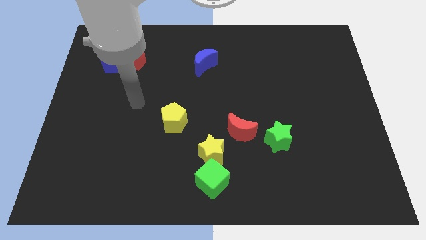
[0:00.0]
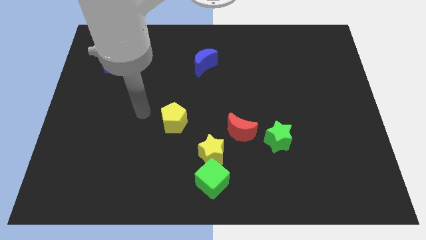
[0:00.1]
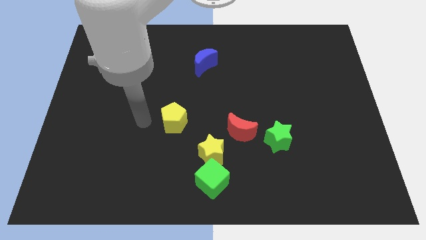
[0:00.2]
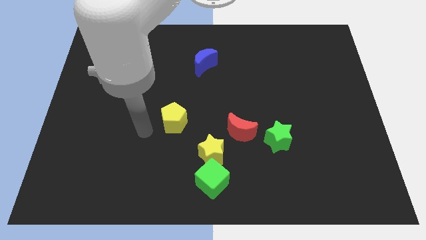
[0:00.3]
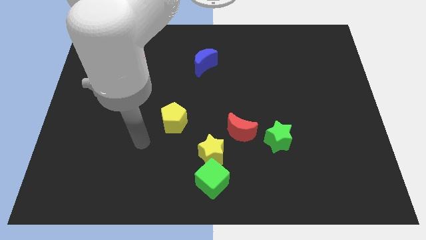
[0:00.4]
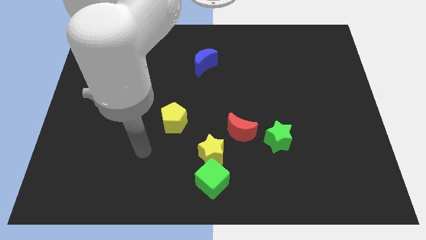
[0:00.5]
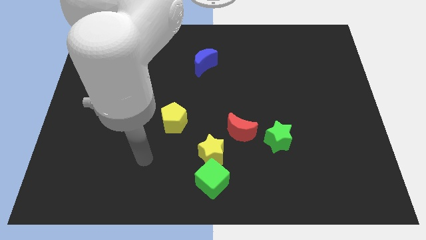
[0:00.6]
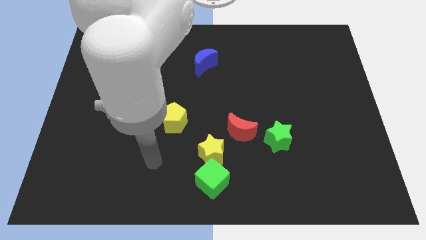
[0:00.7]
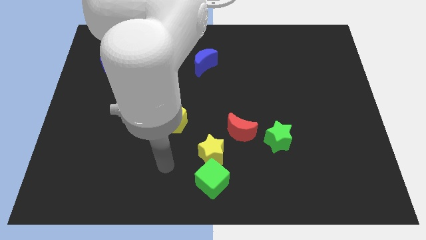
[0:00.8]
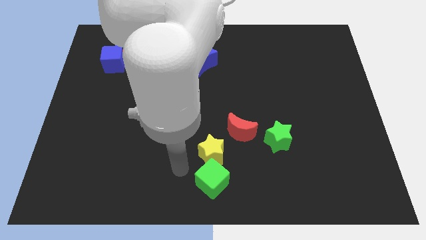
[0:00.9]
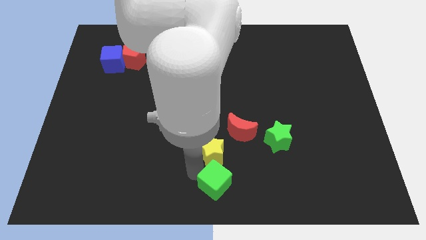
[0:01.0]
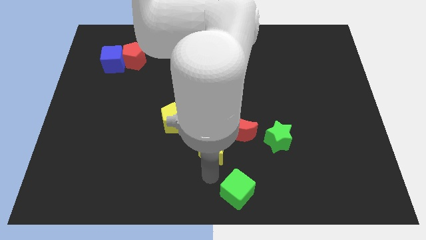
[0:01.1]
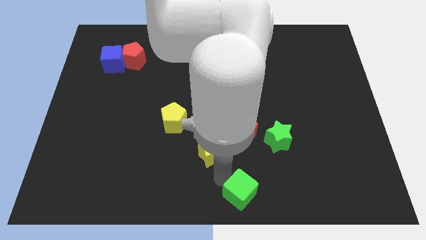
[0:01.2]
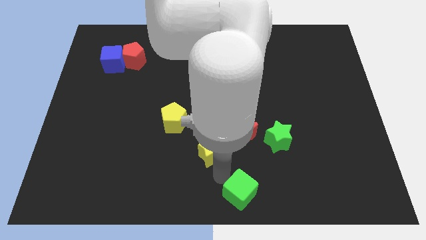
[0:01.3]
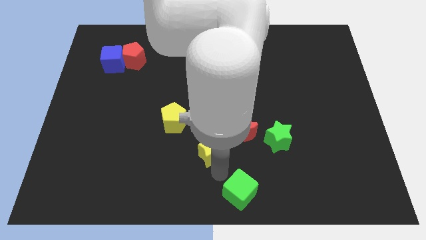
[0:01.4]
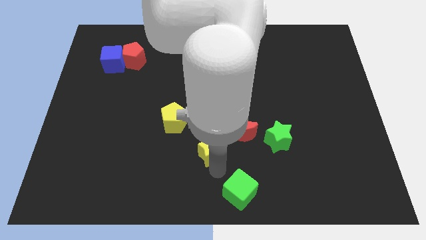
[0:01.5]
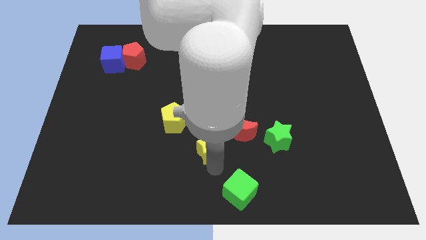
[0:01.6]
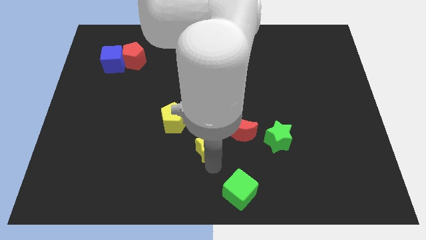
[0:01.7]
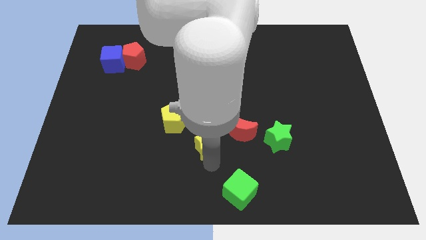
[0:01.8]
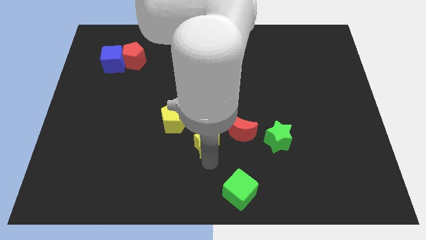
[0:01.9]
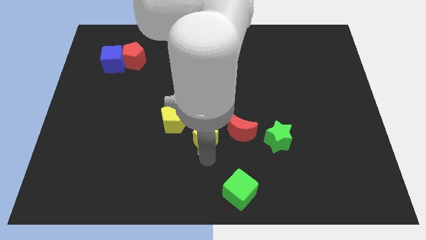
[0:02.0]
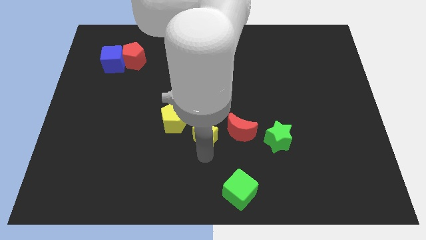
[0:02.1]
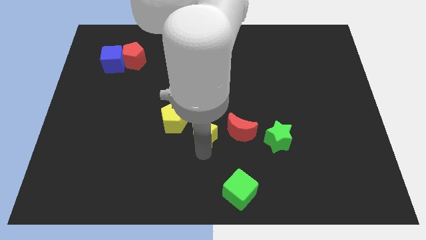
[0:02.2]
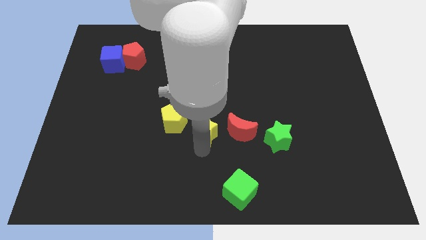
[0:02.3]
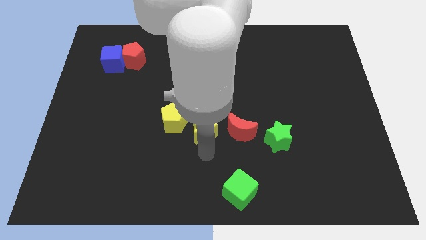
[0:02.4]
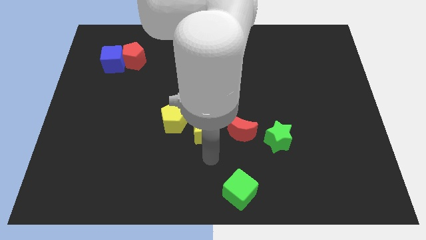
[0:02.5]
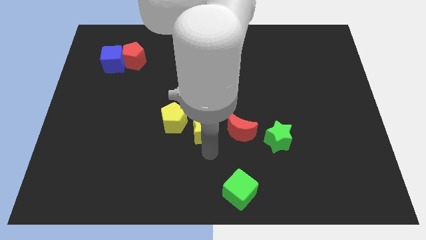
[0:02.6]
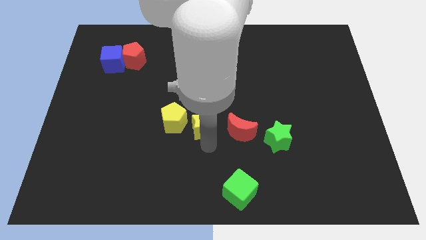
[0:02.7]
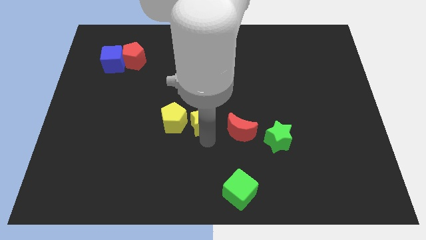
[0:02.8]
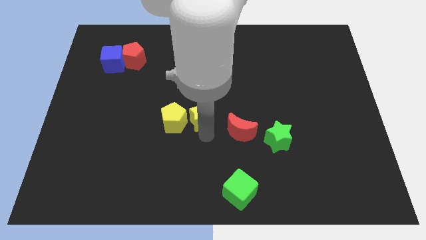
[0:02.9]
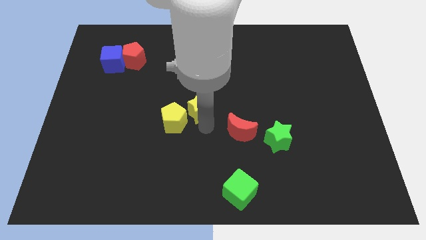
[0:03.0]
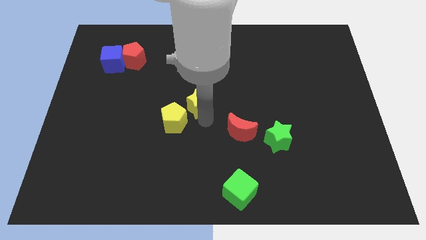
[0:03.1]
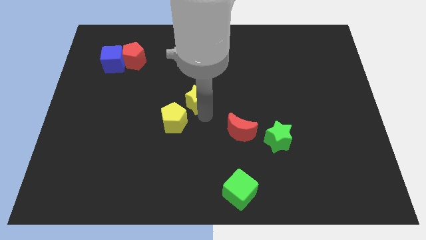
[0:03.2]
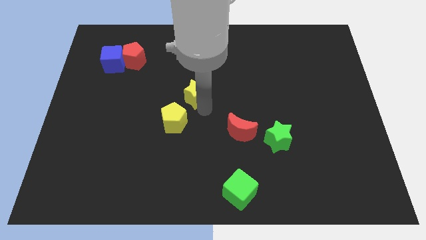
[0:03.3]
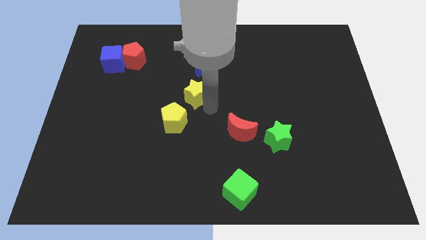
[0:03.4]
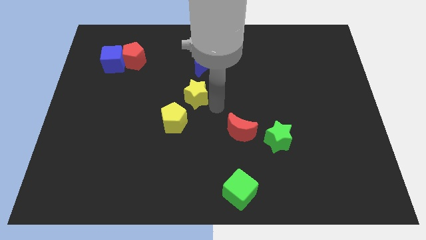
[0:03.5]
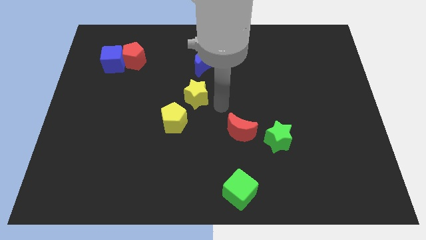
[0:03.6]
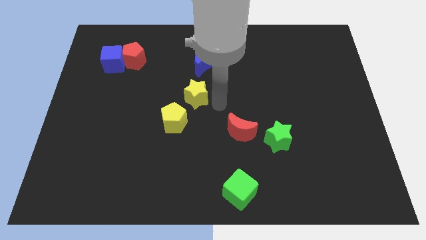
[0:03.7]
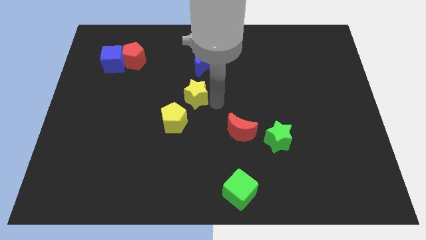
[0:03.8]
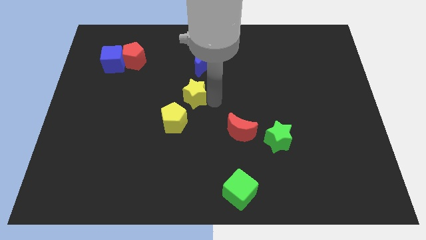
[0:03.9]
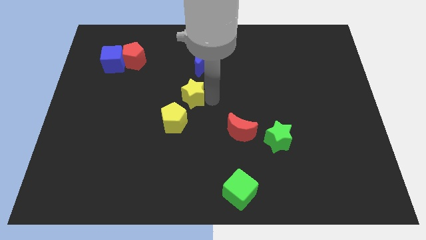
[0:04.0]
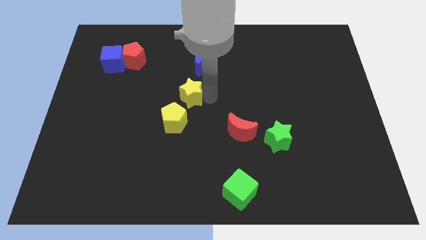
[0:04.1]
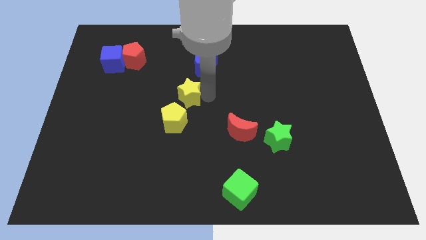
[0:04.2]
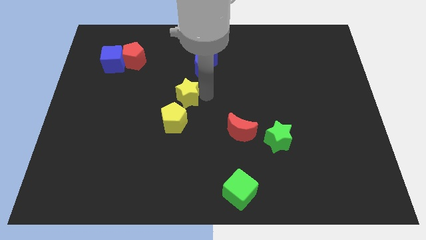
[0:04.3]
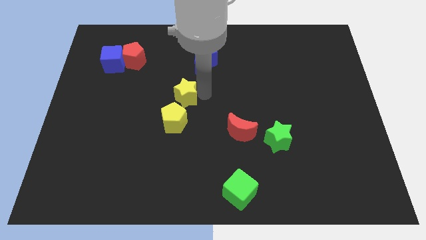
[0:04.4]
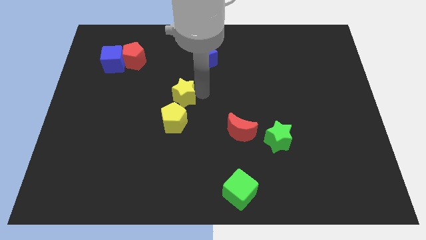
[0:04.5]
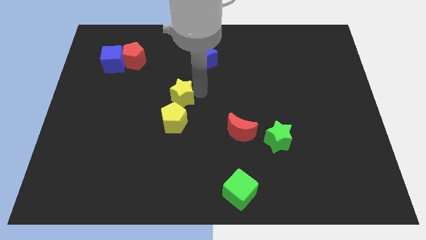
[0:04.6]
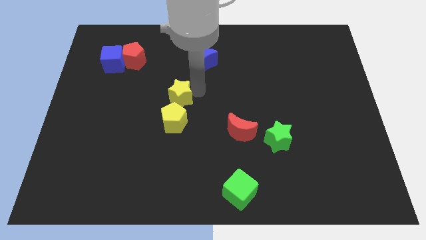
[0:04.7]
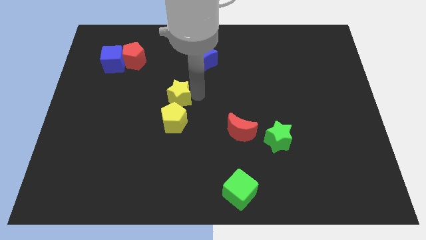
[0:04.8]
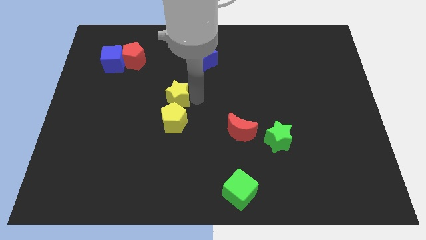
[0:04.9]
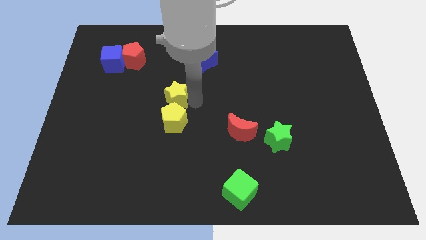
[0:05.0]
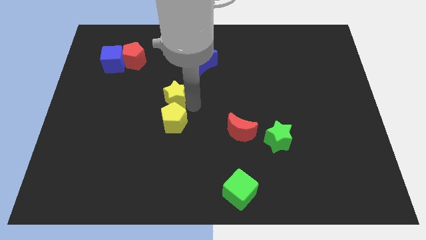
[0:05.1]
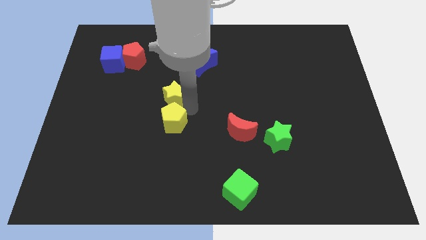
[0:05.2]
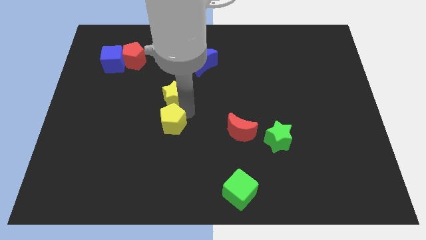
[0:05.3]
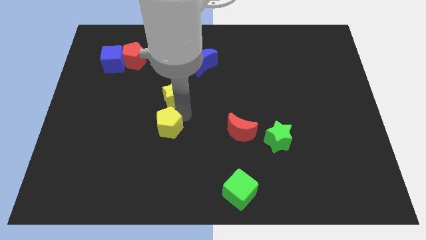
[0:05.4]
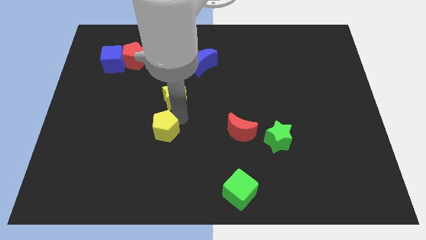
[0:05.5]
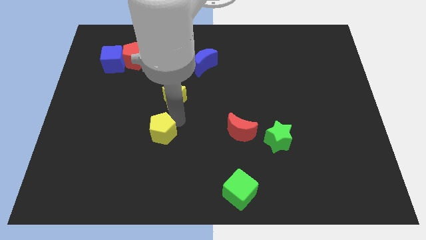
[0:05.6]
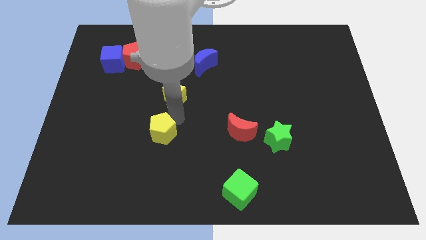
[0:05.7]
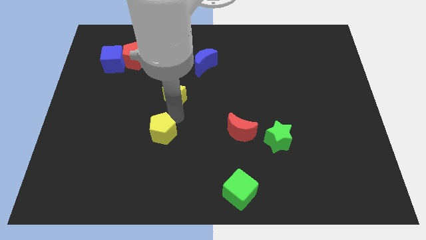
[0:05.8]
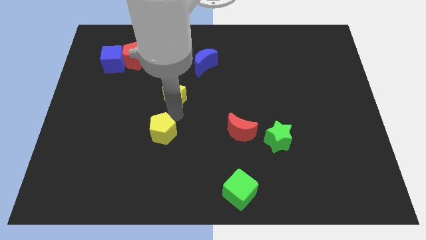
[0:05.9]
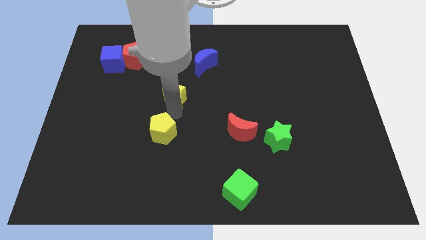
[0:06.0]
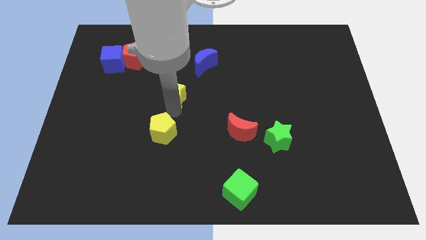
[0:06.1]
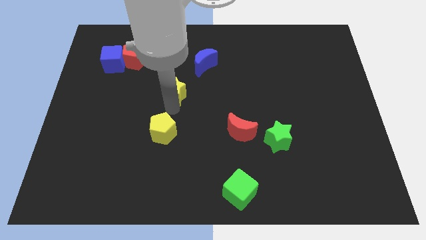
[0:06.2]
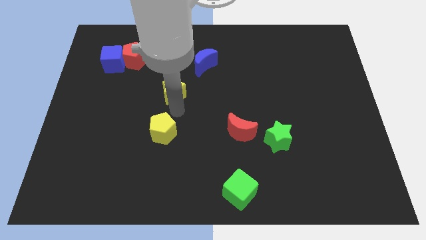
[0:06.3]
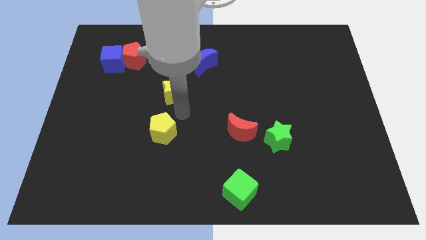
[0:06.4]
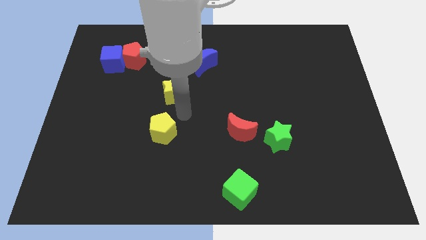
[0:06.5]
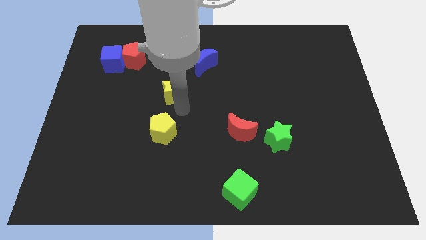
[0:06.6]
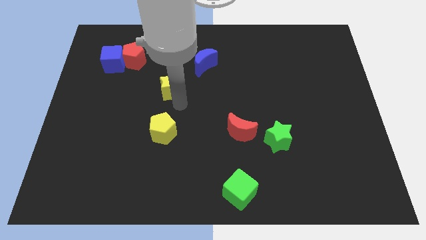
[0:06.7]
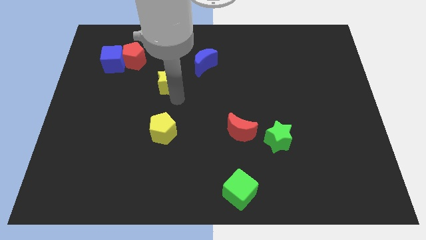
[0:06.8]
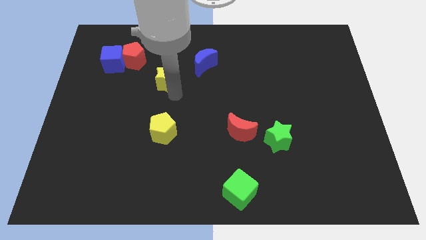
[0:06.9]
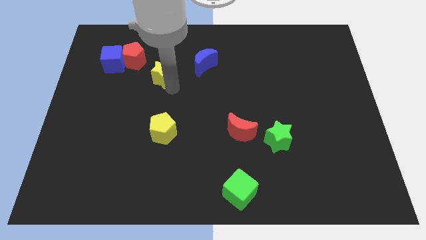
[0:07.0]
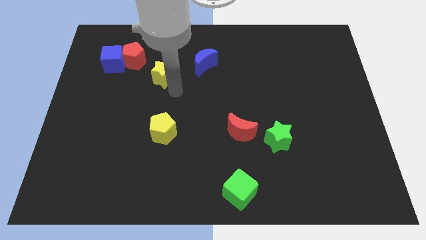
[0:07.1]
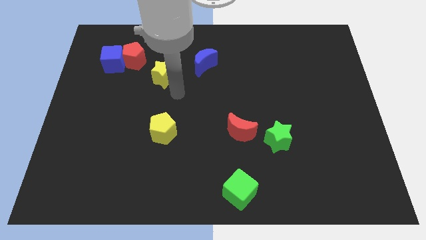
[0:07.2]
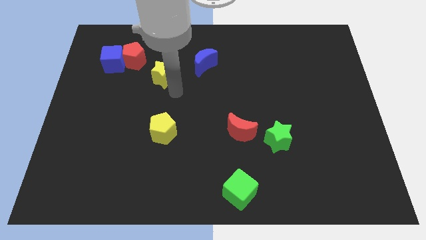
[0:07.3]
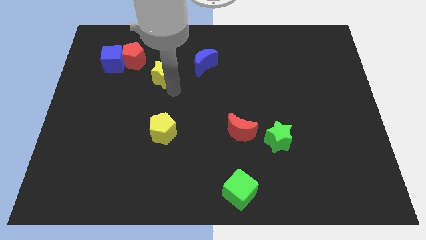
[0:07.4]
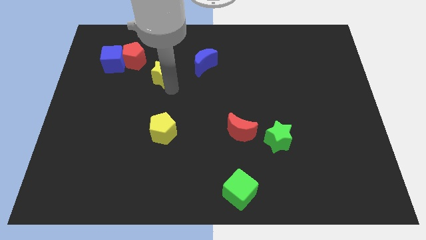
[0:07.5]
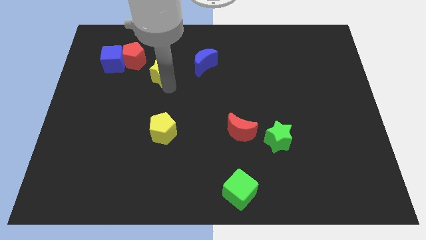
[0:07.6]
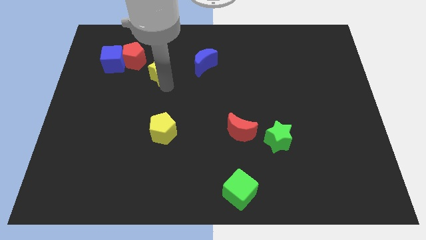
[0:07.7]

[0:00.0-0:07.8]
slide the yellow star just right of the blue cube
